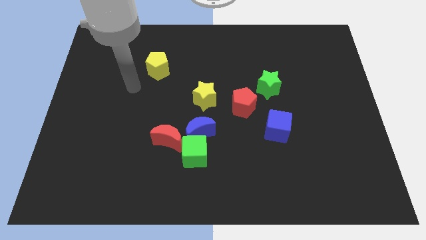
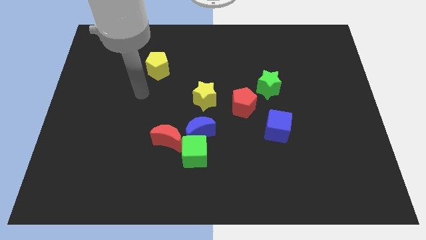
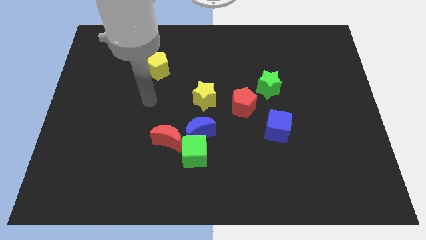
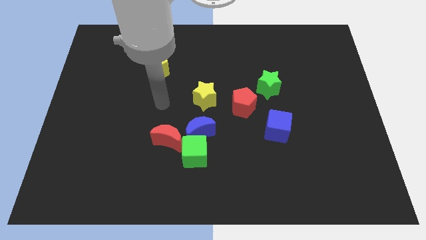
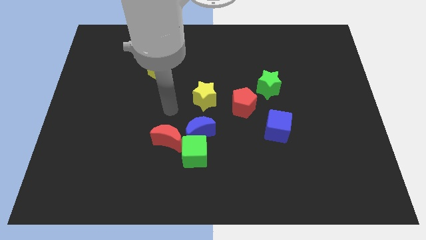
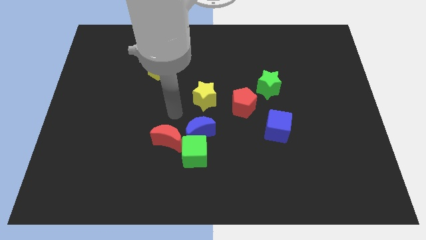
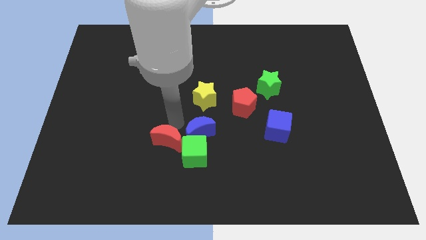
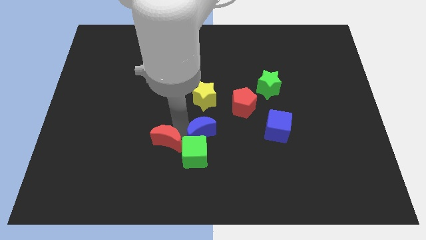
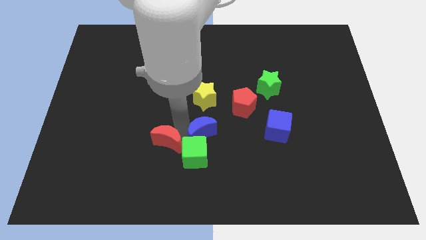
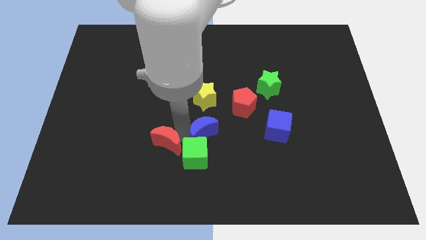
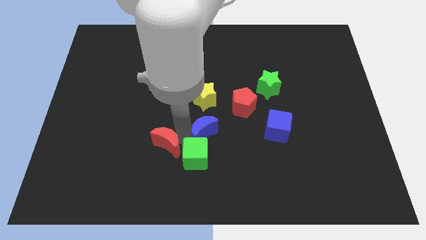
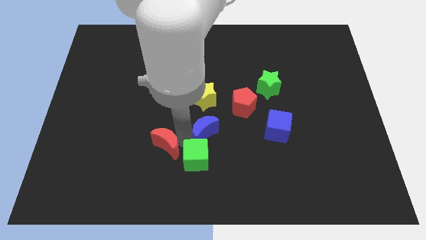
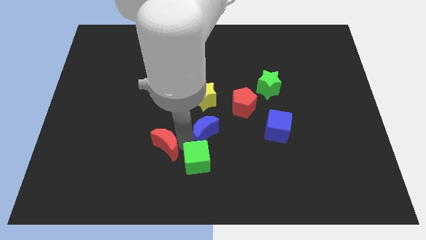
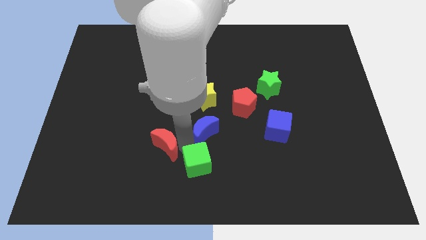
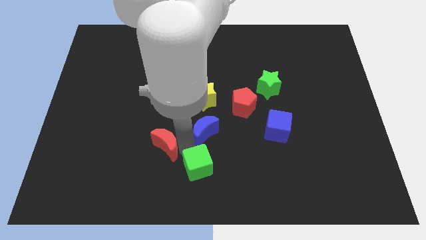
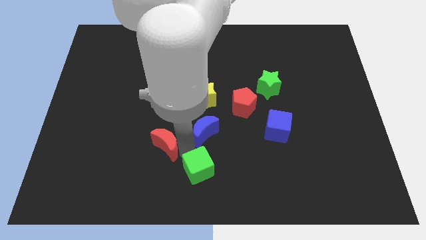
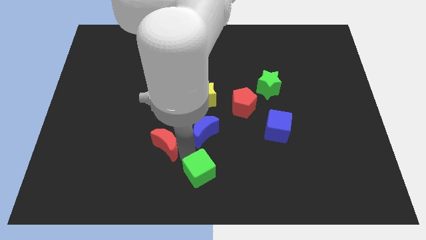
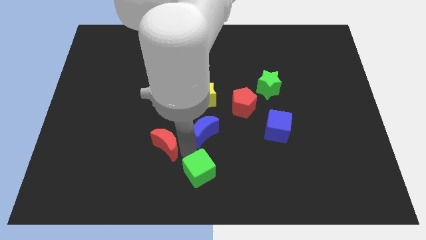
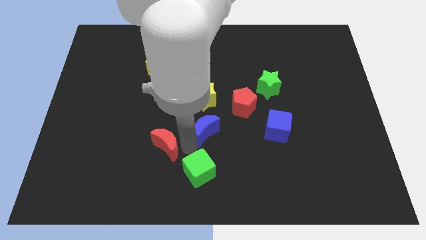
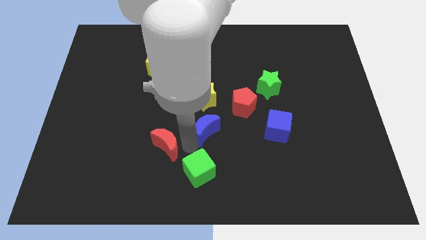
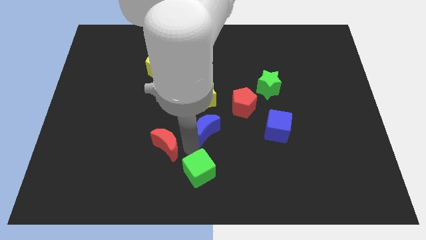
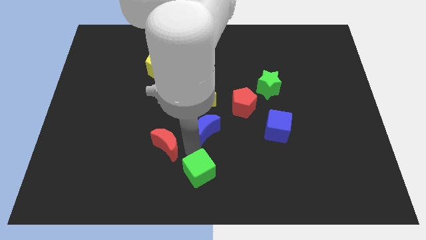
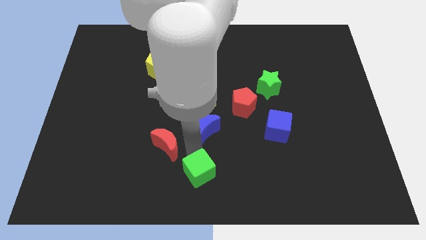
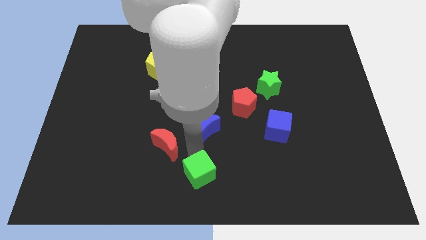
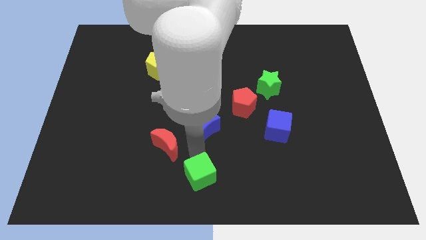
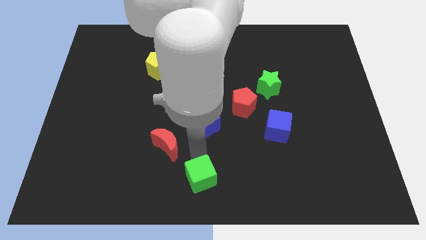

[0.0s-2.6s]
separate the green cube from the blue moon and red moon

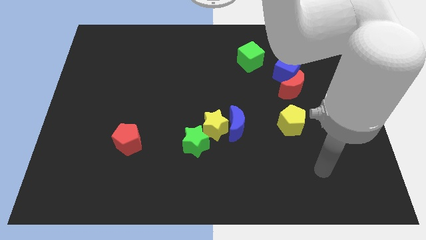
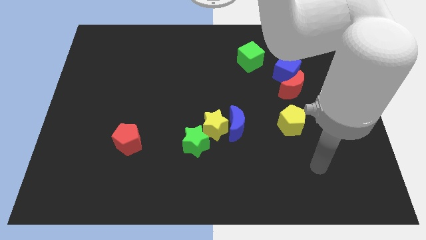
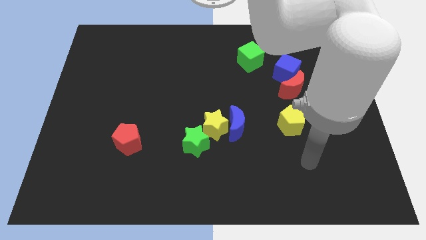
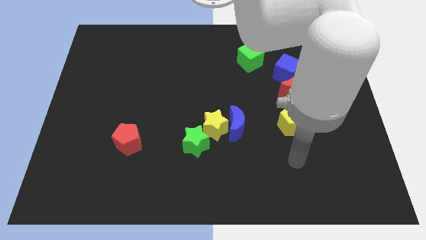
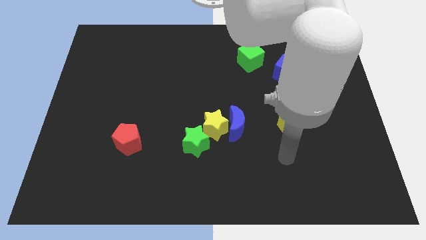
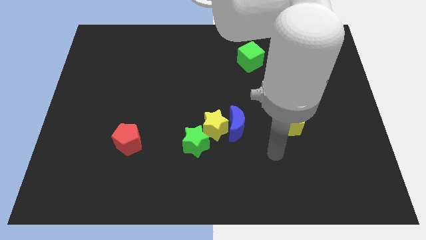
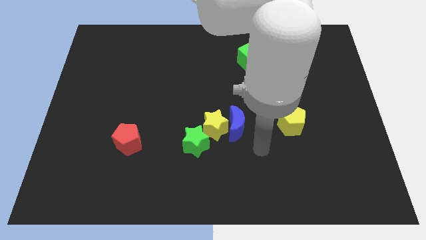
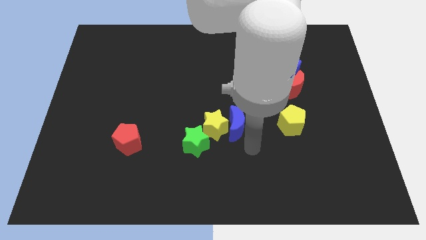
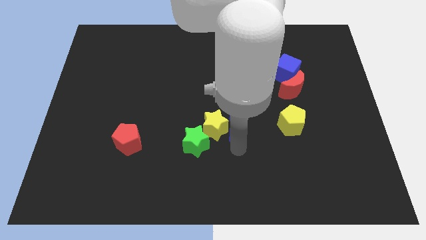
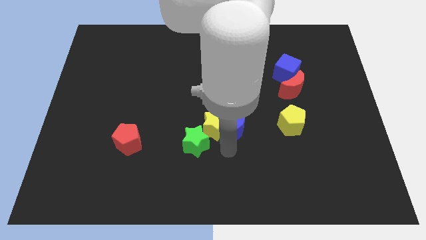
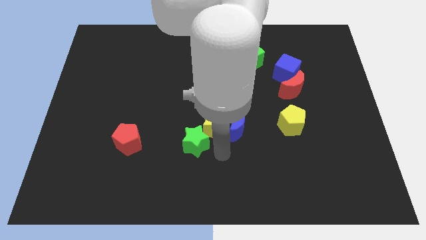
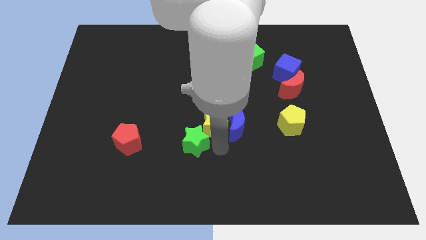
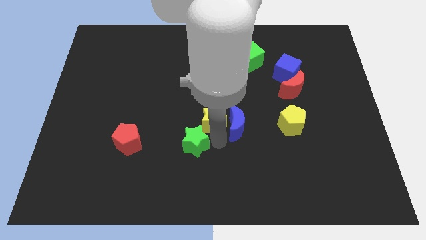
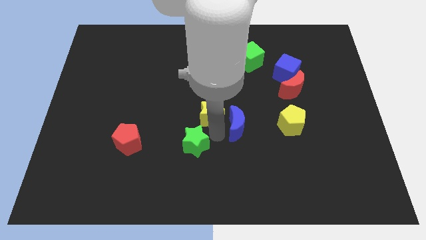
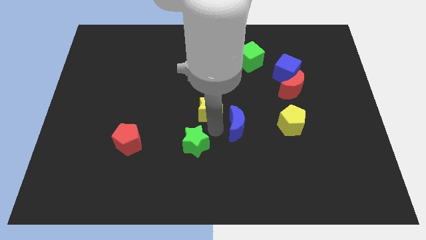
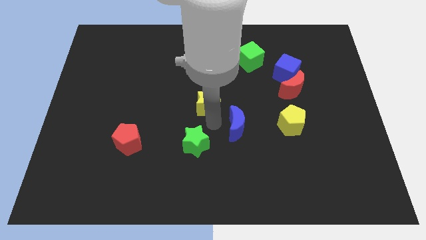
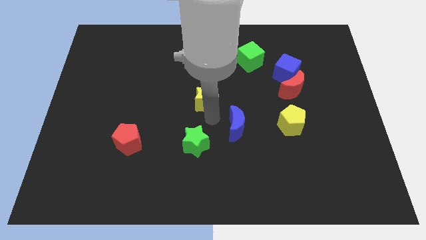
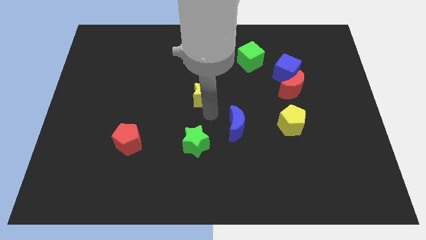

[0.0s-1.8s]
pull the yellow star apart from the blue moon and green star

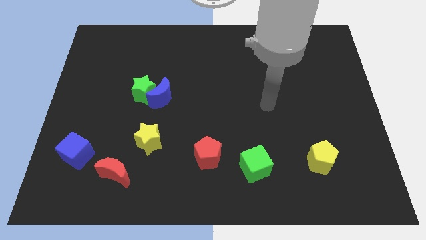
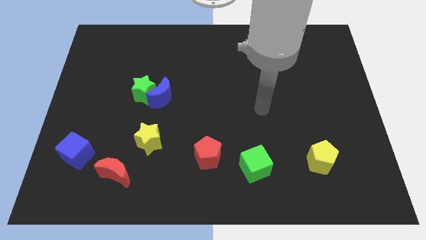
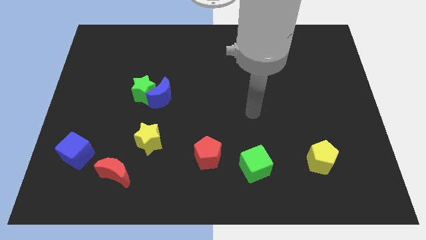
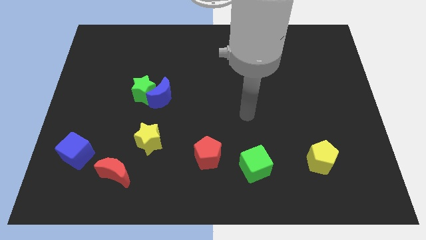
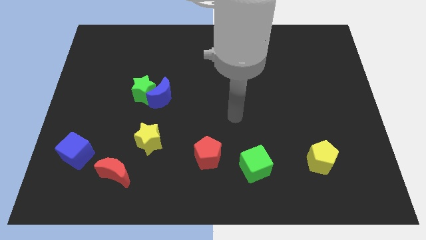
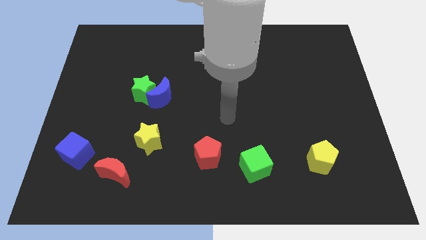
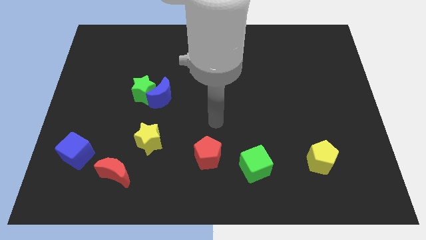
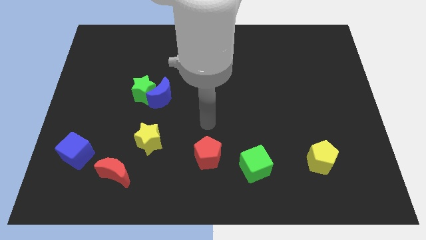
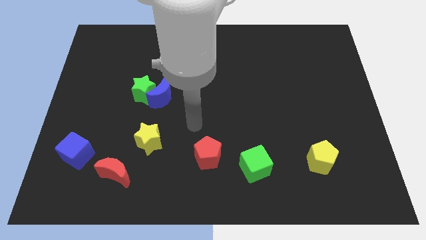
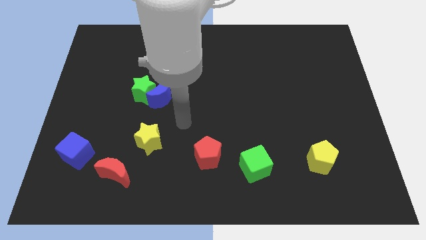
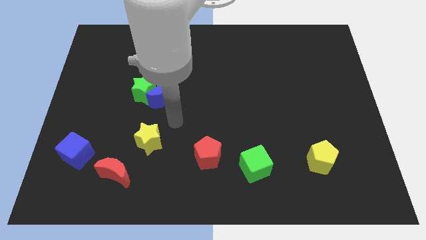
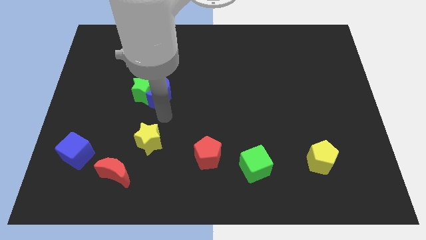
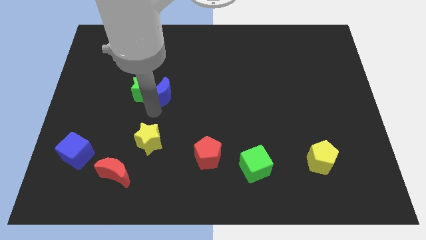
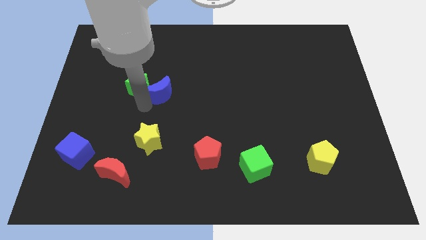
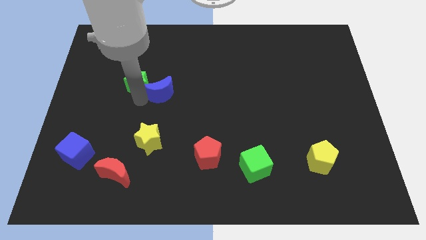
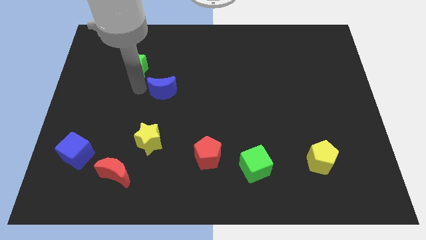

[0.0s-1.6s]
pull the blue moon apart from the green star

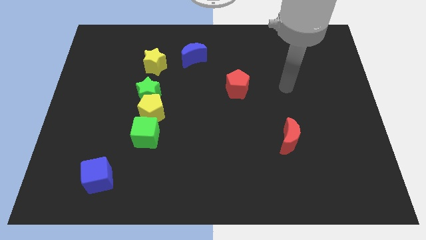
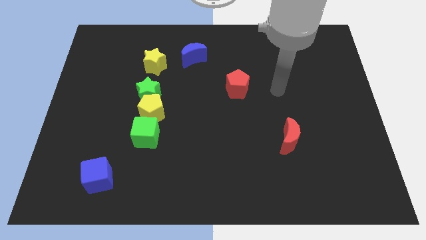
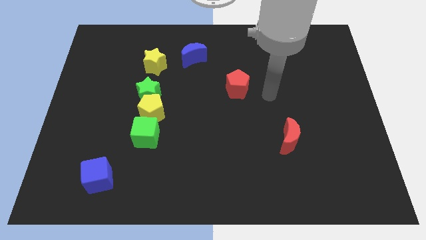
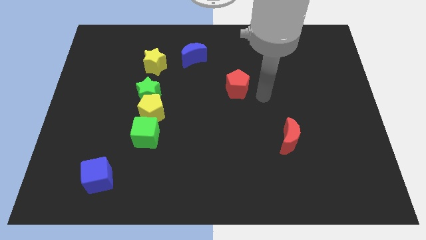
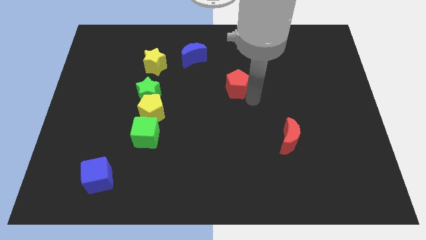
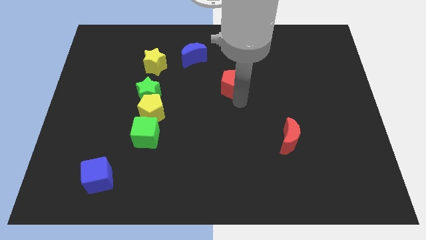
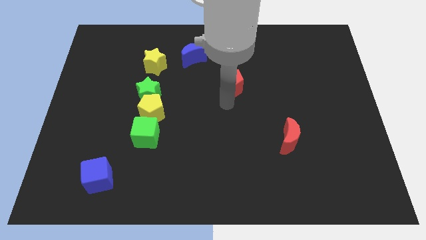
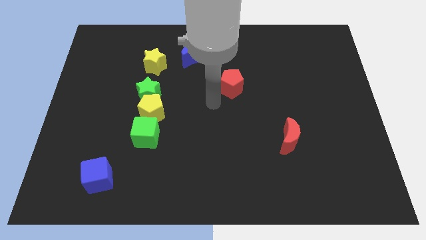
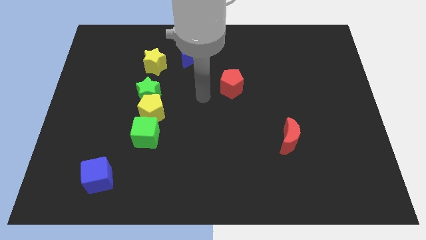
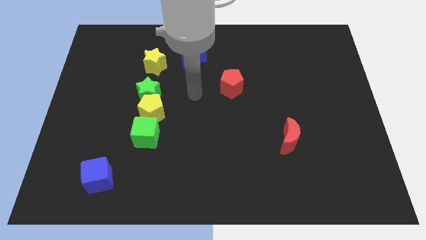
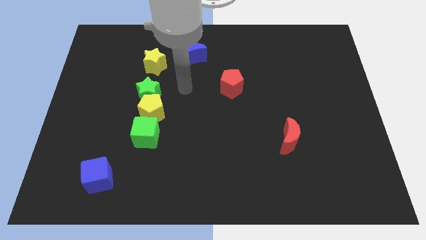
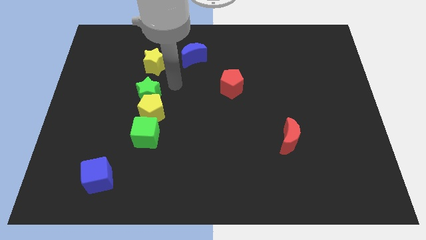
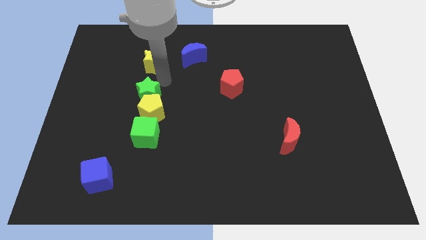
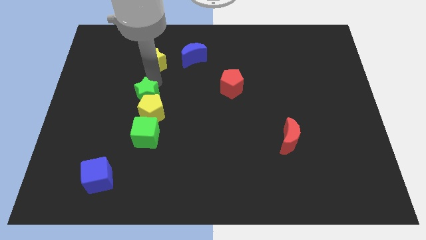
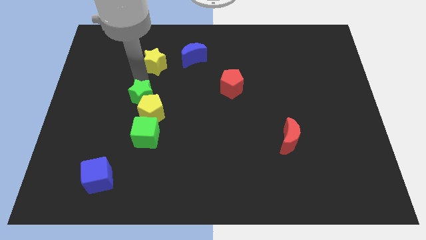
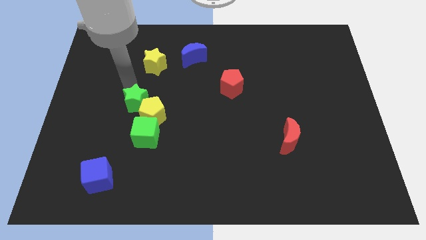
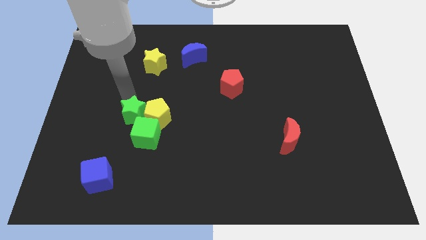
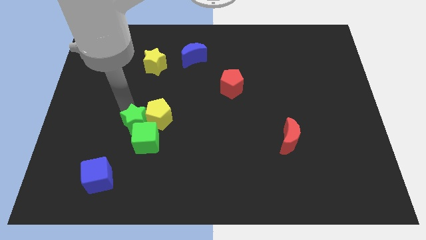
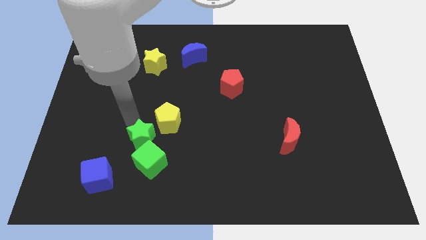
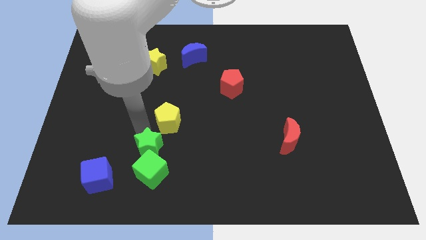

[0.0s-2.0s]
move the yellow pentagon away from the green star and green cube

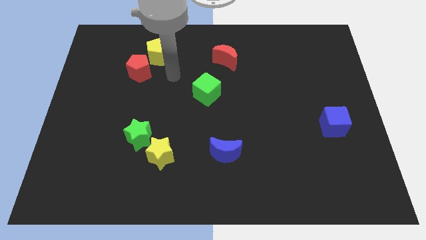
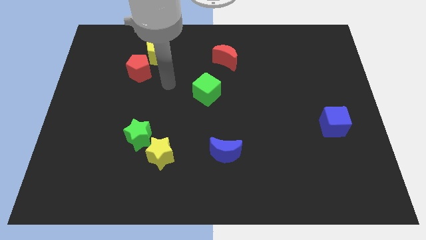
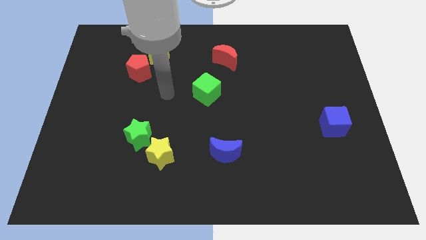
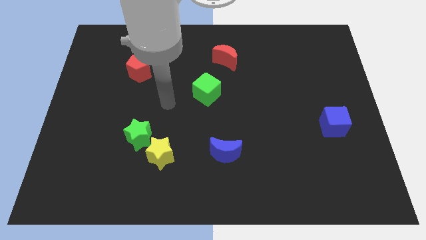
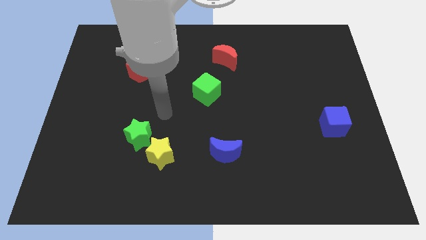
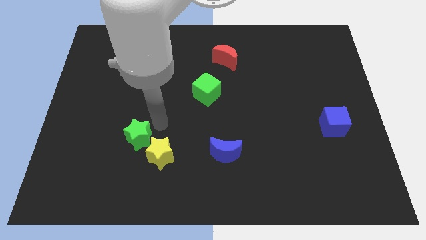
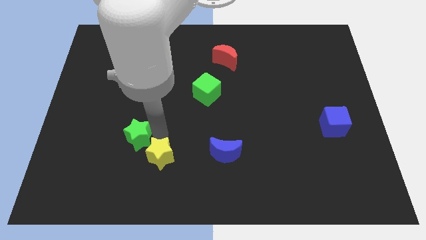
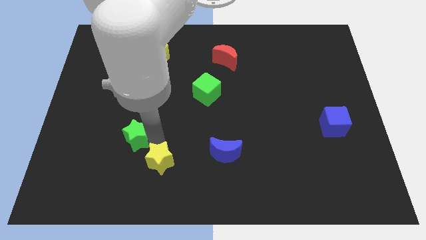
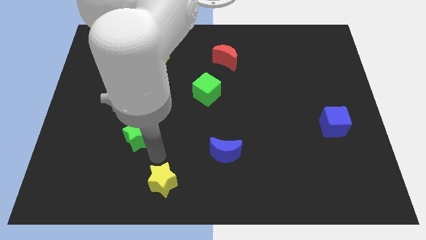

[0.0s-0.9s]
separate the green star from the yellow star

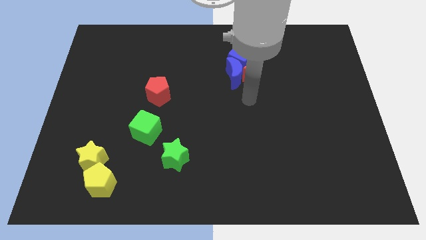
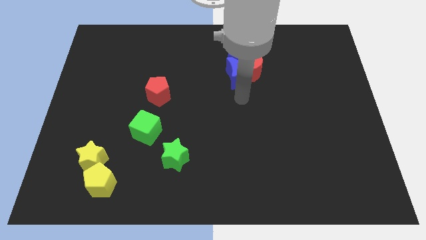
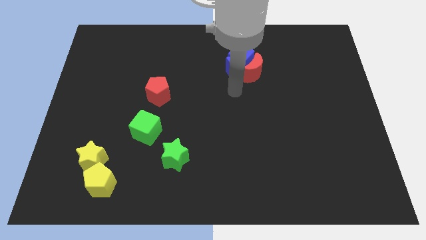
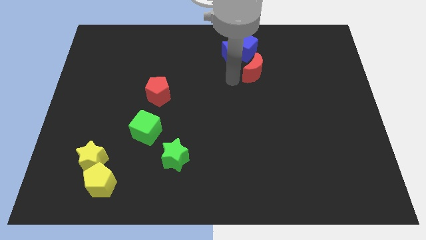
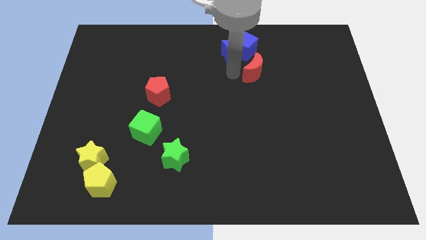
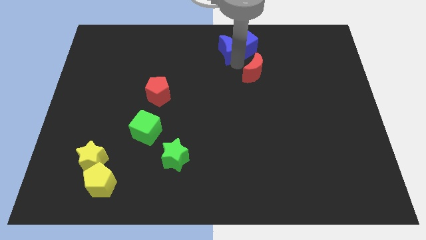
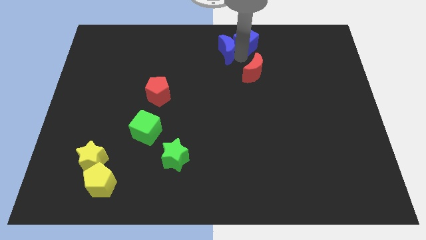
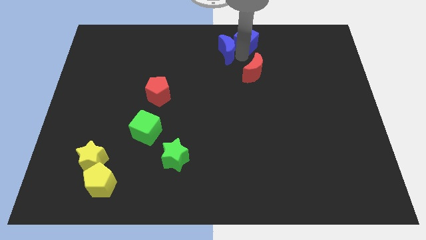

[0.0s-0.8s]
pull the red moon apart from the blue cube and blue moon
